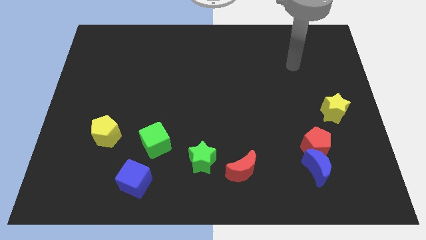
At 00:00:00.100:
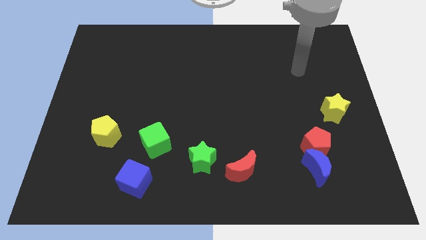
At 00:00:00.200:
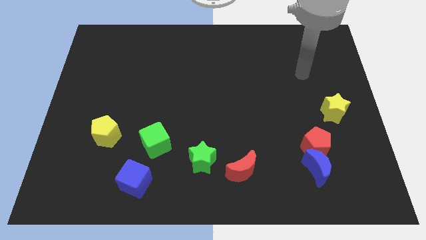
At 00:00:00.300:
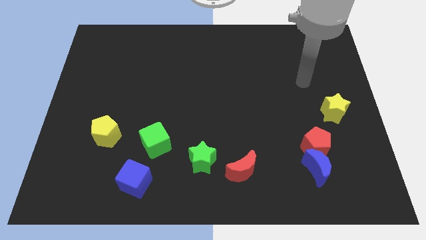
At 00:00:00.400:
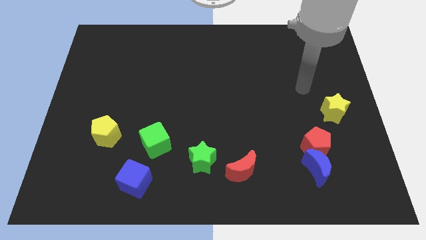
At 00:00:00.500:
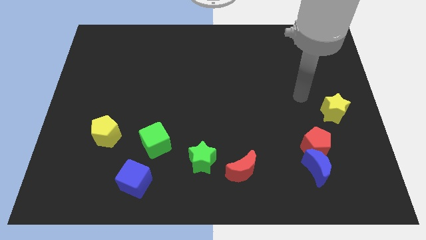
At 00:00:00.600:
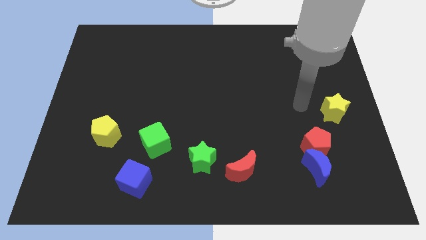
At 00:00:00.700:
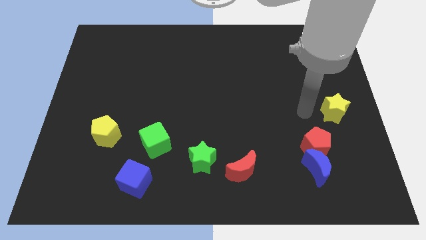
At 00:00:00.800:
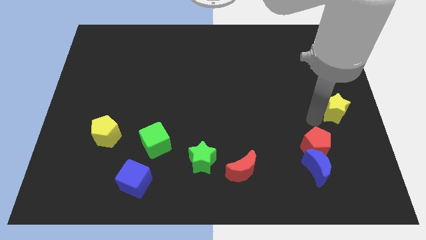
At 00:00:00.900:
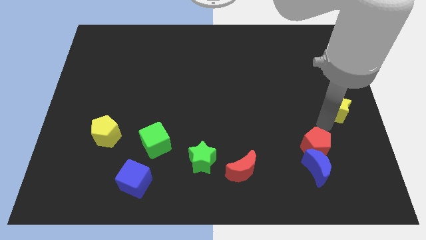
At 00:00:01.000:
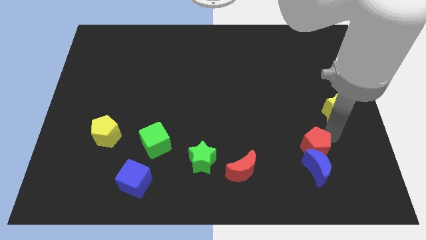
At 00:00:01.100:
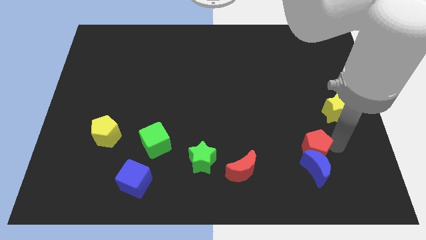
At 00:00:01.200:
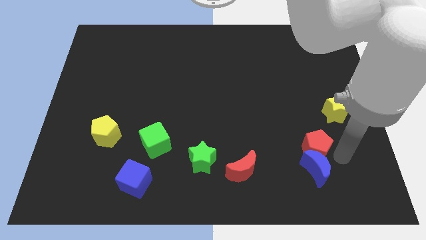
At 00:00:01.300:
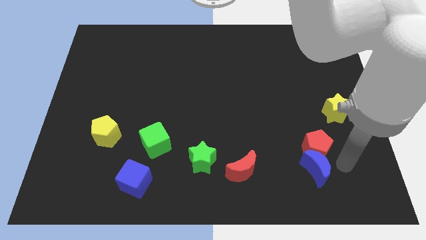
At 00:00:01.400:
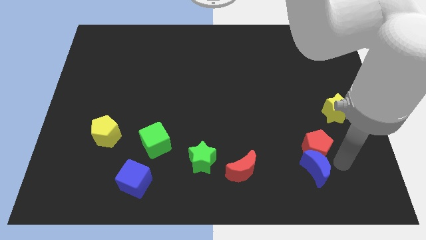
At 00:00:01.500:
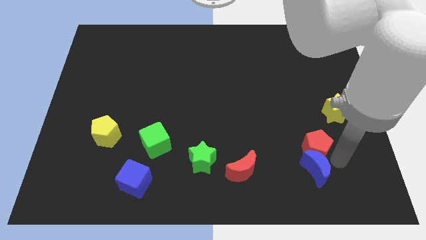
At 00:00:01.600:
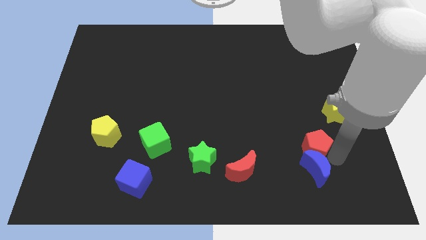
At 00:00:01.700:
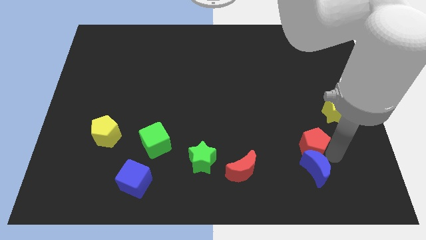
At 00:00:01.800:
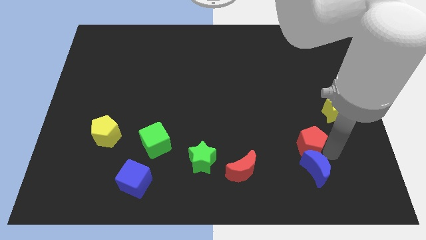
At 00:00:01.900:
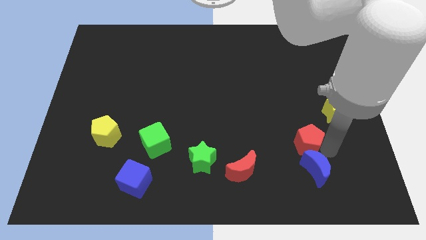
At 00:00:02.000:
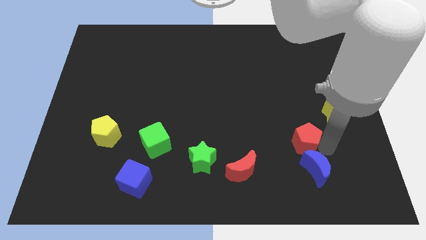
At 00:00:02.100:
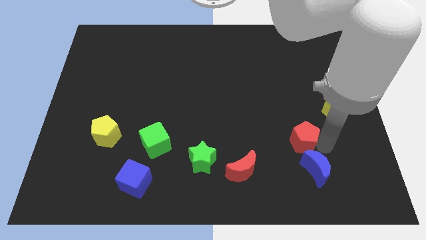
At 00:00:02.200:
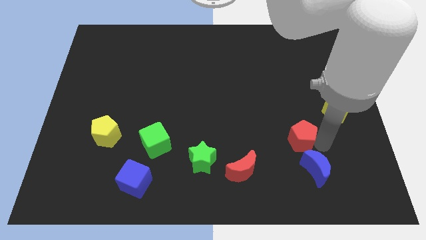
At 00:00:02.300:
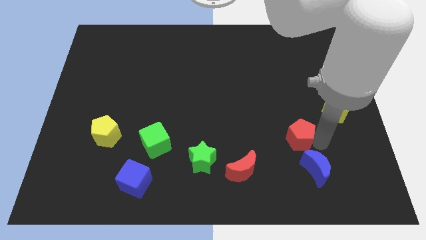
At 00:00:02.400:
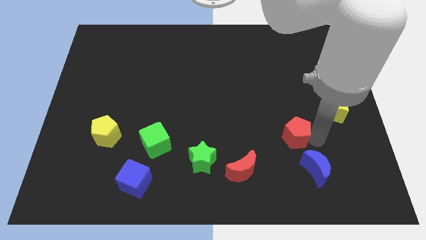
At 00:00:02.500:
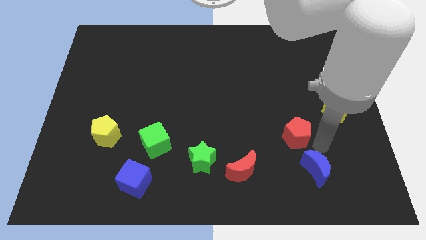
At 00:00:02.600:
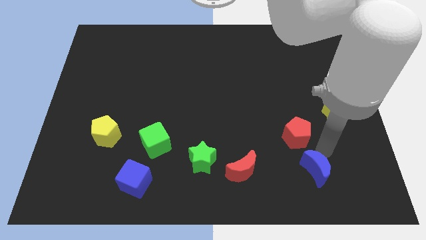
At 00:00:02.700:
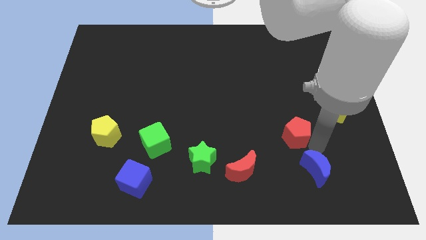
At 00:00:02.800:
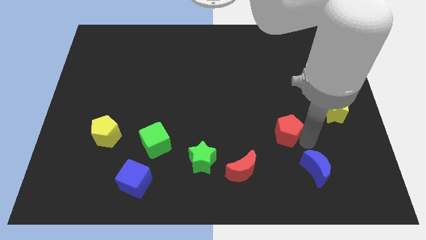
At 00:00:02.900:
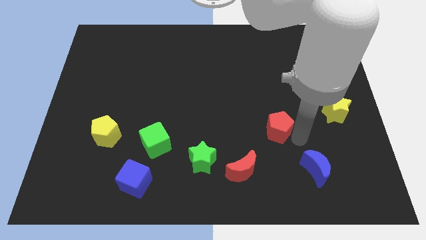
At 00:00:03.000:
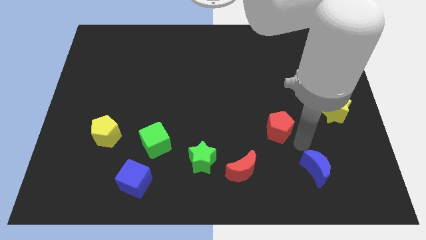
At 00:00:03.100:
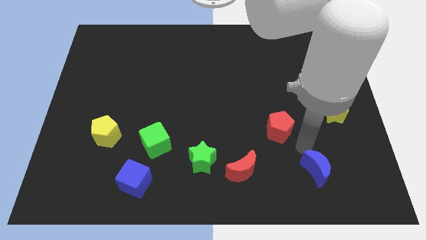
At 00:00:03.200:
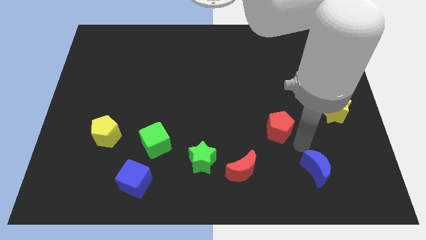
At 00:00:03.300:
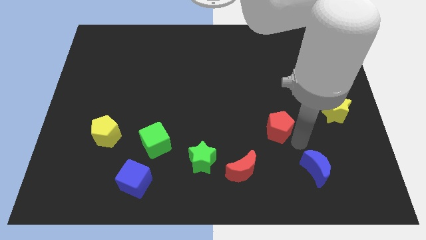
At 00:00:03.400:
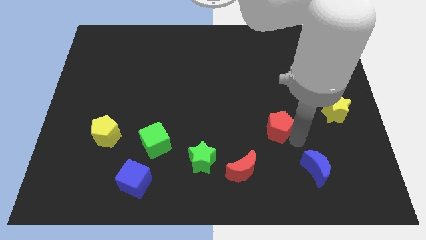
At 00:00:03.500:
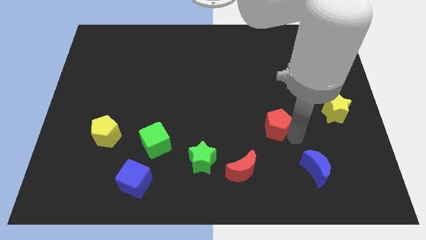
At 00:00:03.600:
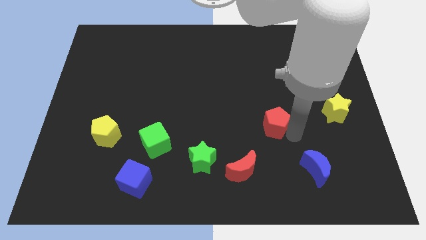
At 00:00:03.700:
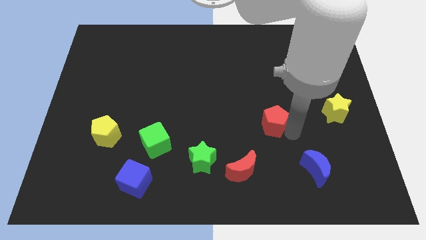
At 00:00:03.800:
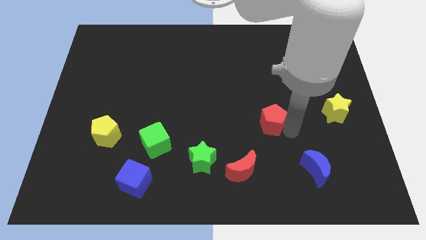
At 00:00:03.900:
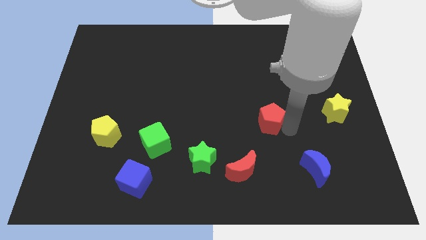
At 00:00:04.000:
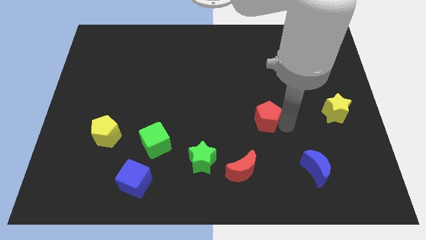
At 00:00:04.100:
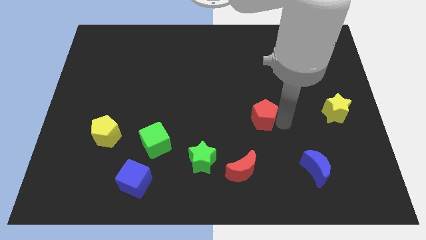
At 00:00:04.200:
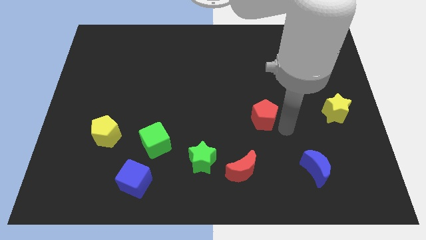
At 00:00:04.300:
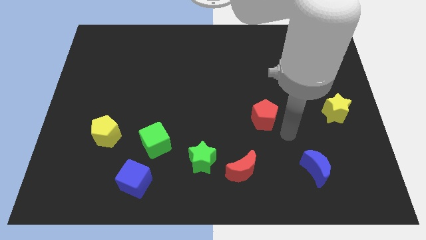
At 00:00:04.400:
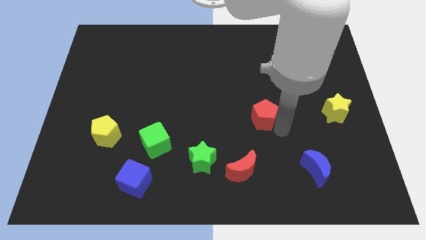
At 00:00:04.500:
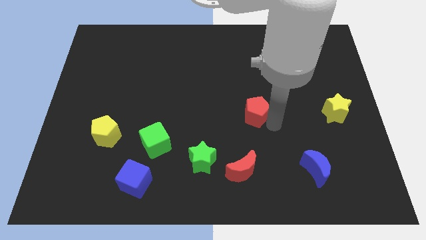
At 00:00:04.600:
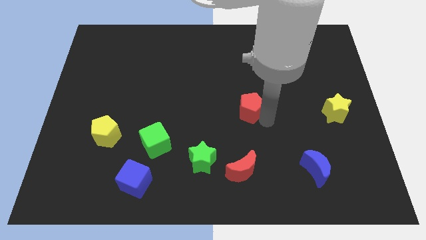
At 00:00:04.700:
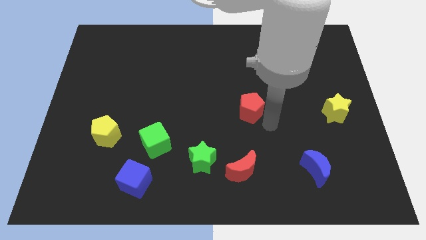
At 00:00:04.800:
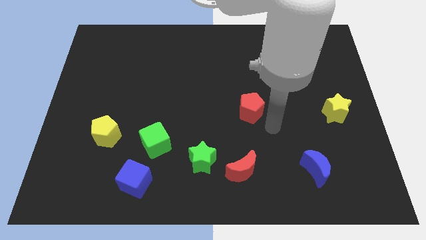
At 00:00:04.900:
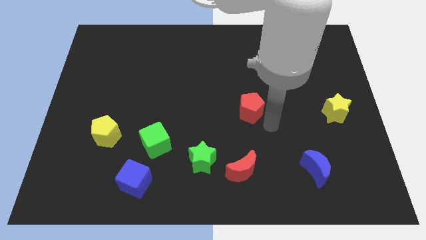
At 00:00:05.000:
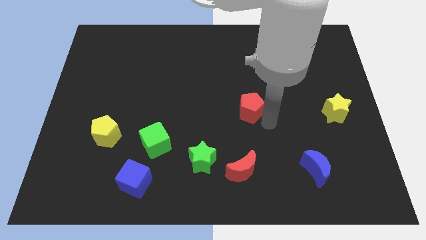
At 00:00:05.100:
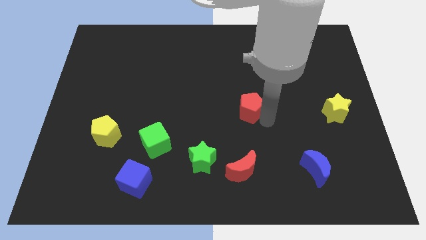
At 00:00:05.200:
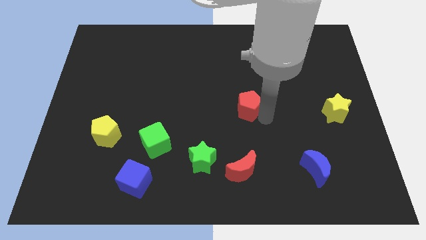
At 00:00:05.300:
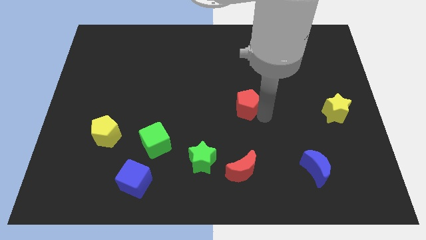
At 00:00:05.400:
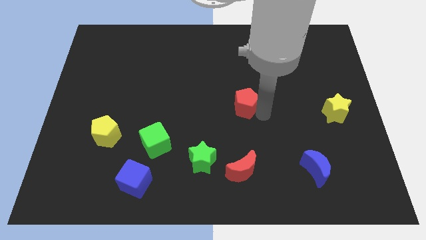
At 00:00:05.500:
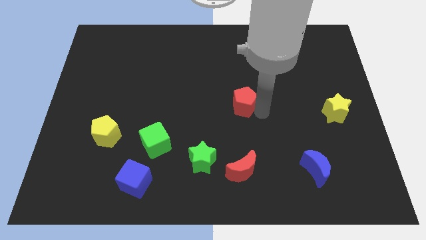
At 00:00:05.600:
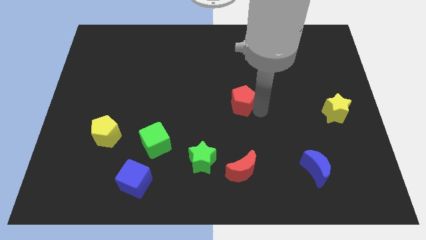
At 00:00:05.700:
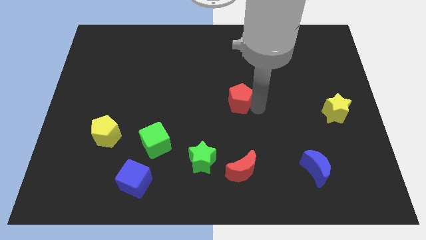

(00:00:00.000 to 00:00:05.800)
push the red pentagon up and then to the left

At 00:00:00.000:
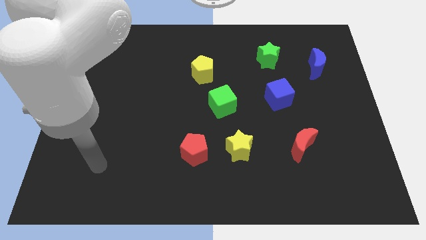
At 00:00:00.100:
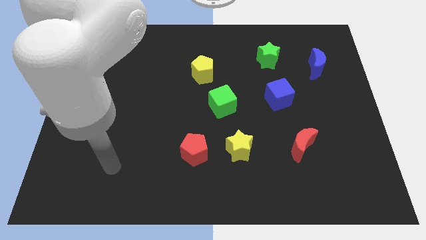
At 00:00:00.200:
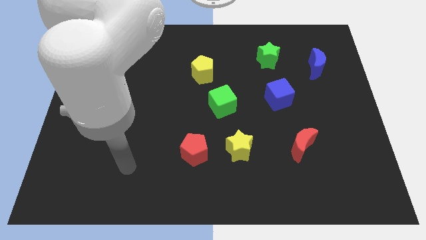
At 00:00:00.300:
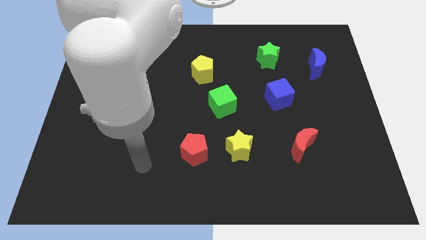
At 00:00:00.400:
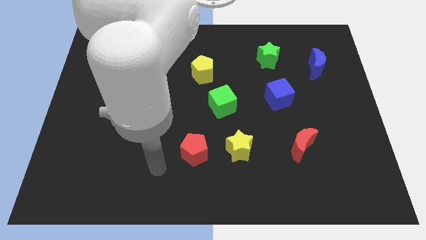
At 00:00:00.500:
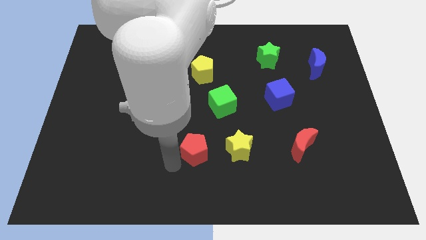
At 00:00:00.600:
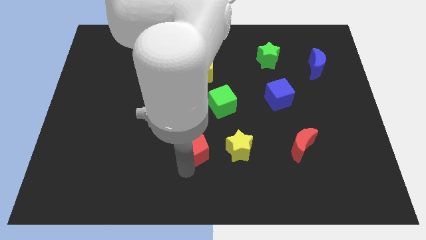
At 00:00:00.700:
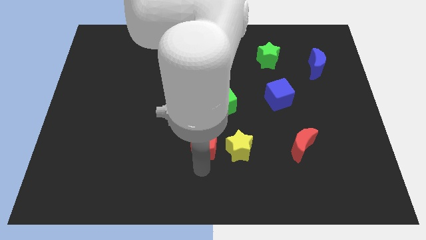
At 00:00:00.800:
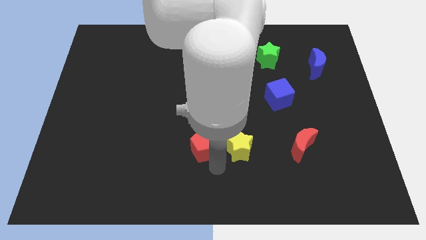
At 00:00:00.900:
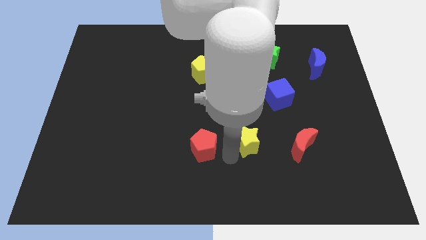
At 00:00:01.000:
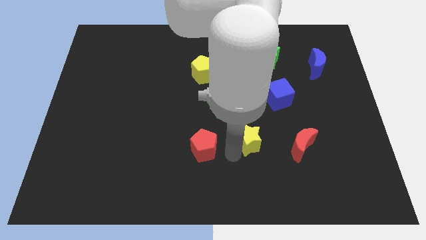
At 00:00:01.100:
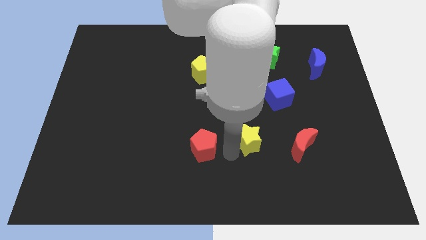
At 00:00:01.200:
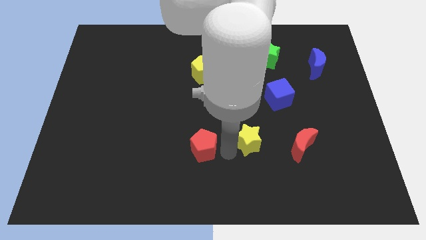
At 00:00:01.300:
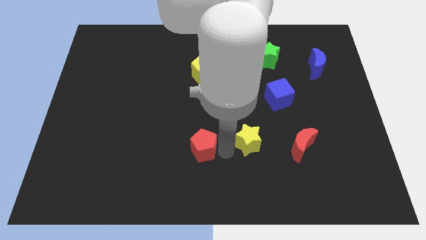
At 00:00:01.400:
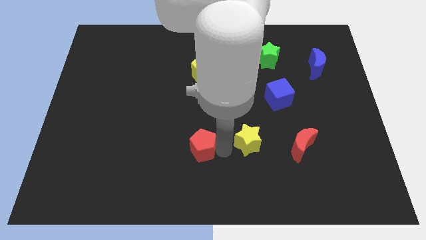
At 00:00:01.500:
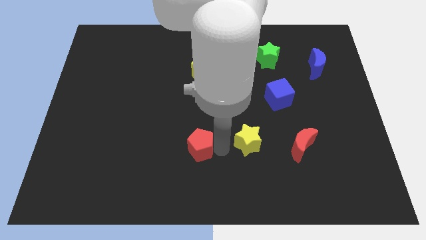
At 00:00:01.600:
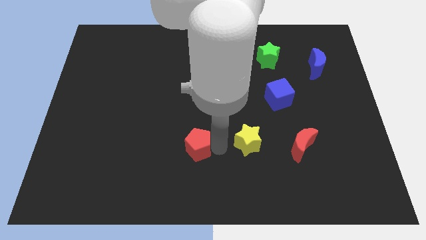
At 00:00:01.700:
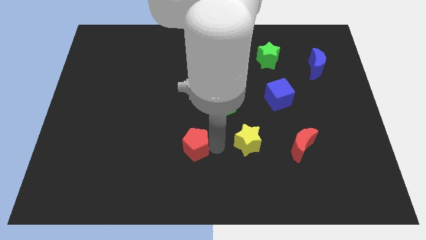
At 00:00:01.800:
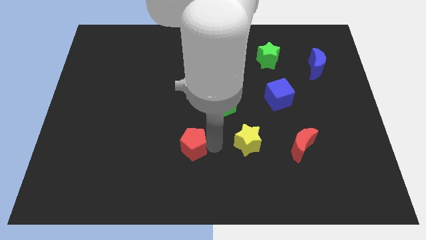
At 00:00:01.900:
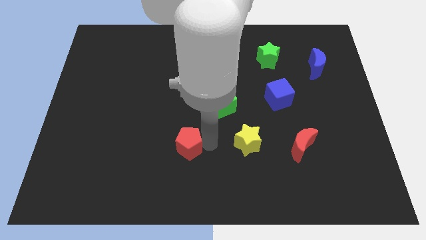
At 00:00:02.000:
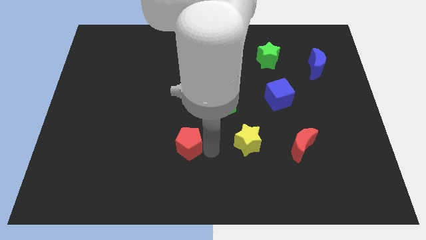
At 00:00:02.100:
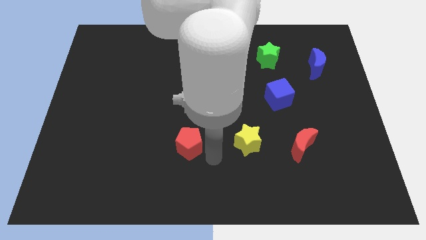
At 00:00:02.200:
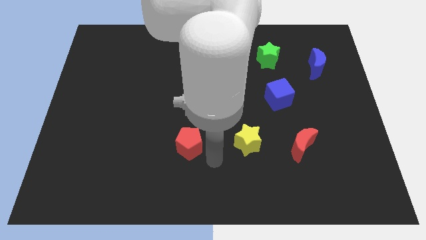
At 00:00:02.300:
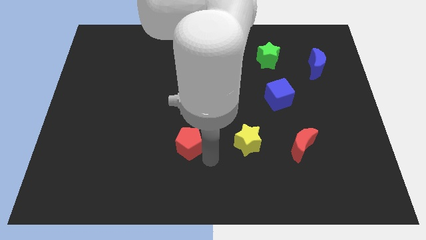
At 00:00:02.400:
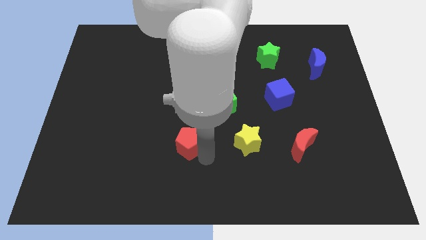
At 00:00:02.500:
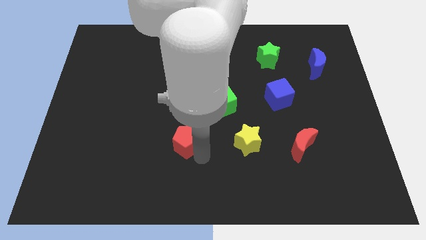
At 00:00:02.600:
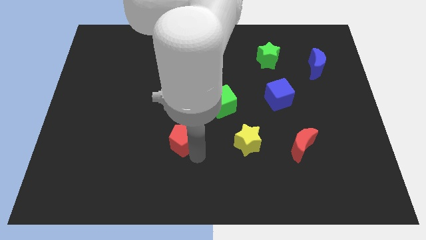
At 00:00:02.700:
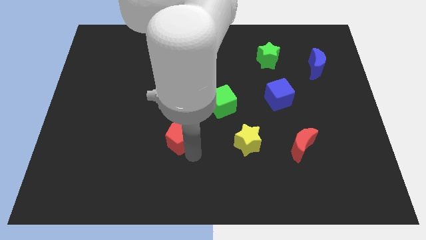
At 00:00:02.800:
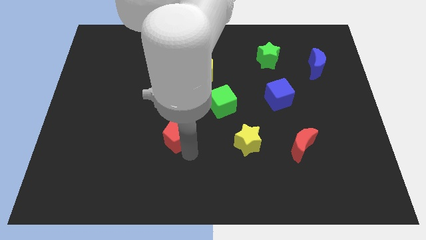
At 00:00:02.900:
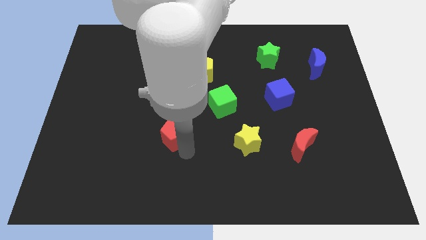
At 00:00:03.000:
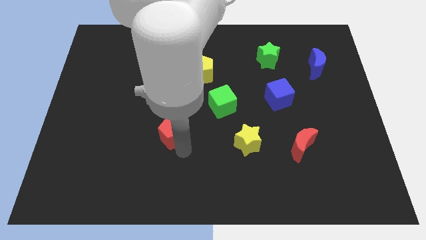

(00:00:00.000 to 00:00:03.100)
slightly push the red pentagon up and to the left
